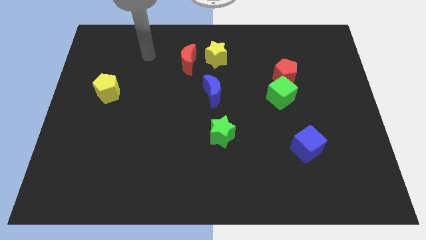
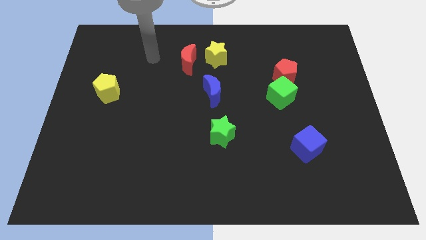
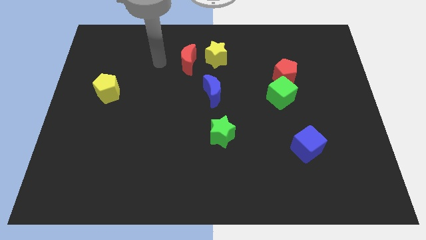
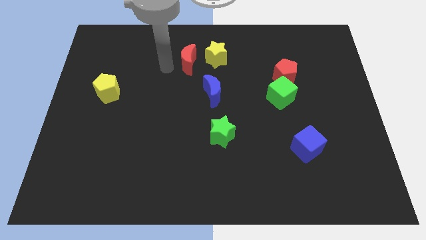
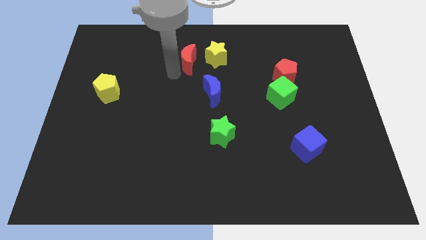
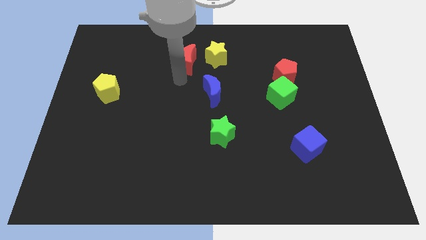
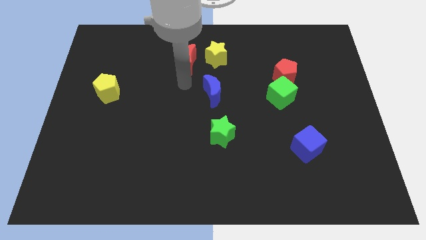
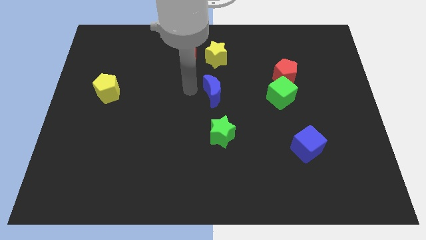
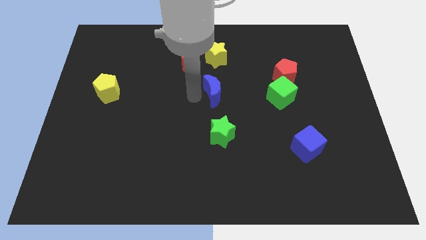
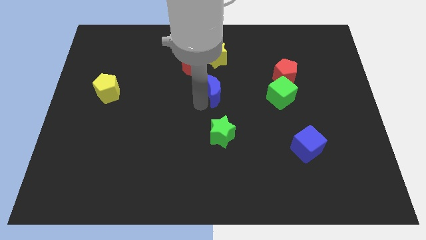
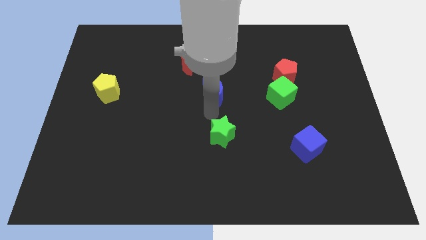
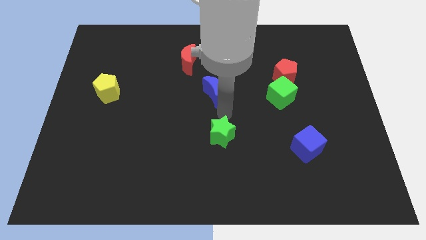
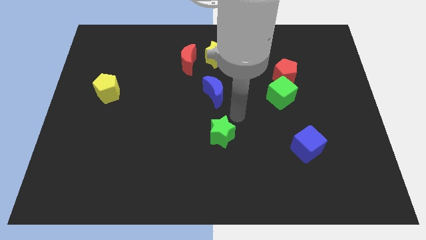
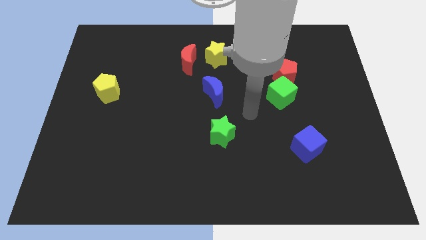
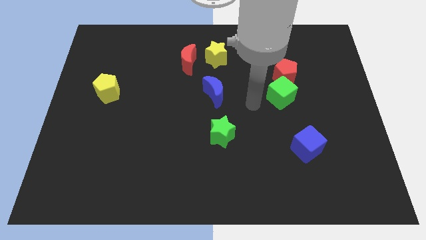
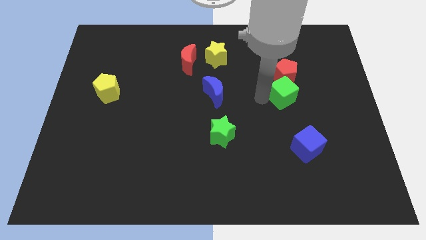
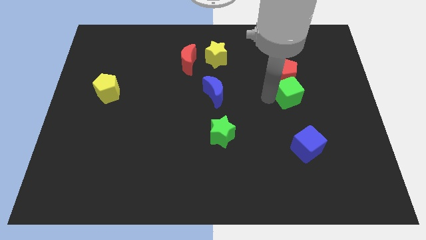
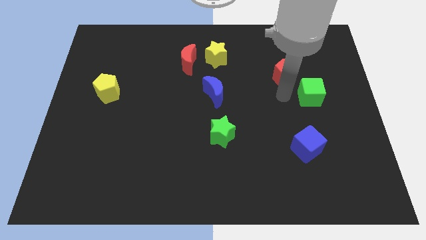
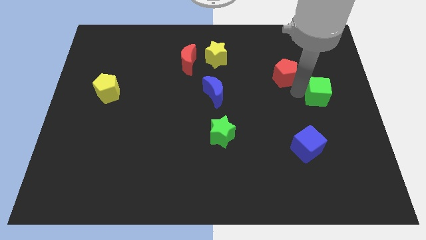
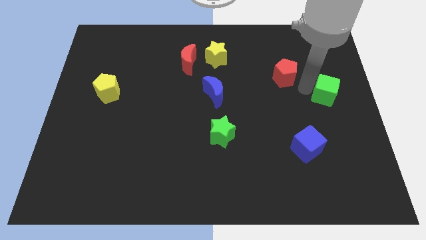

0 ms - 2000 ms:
move the red pentagon away from the green cube

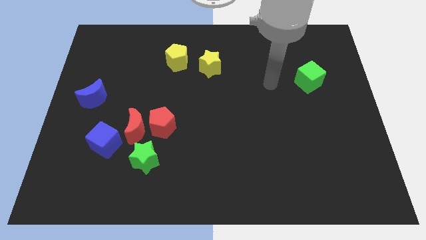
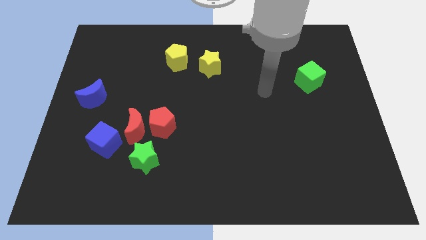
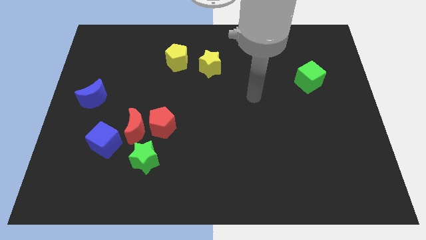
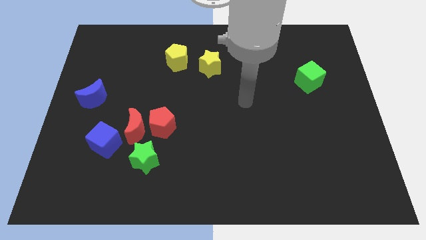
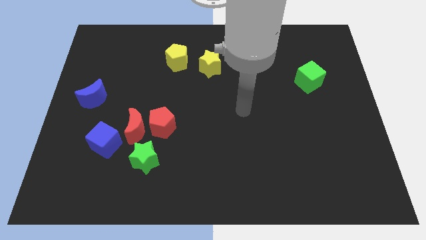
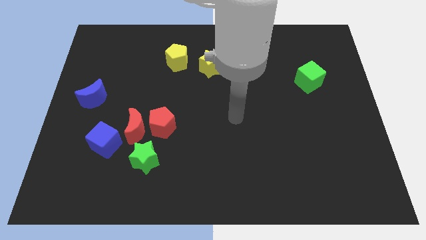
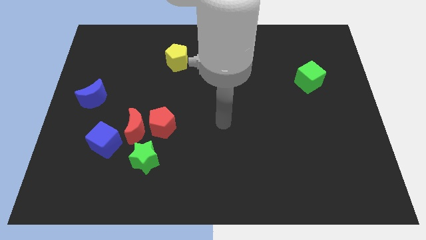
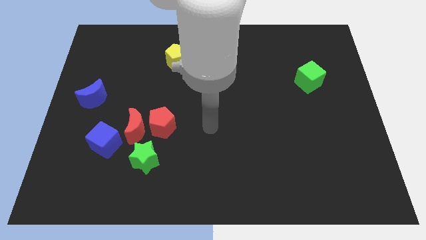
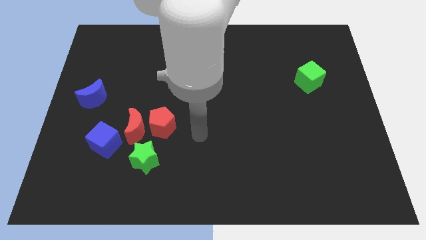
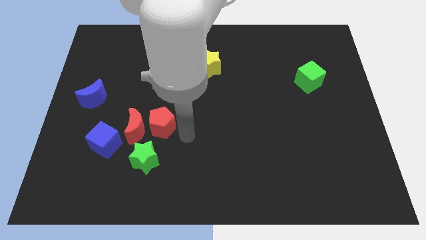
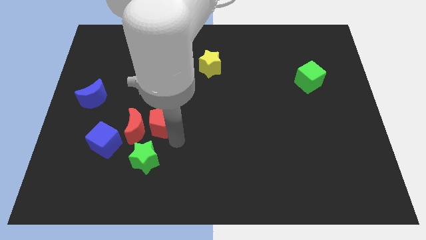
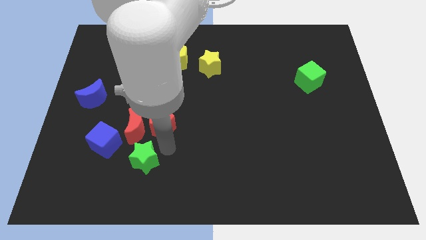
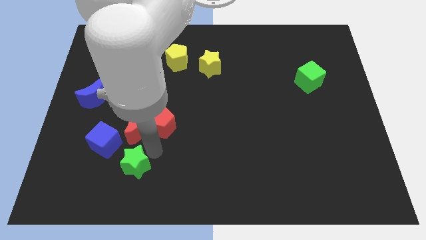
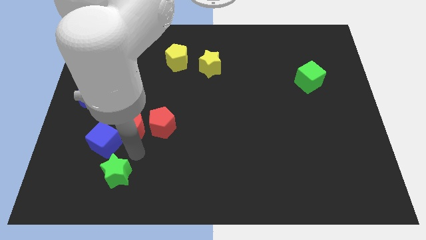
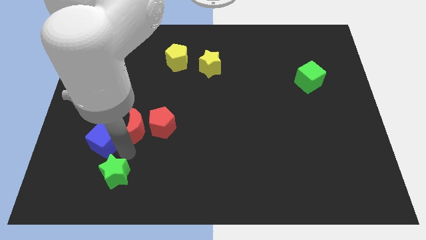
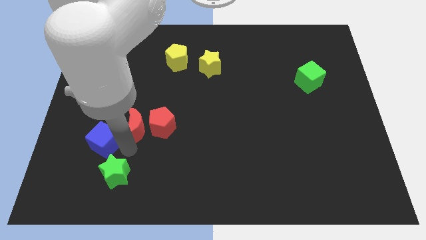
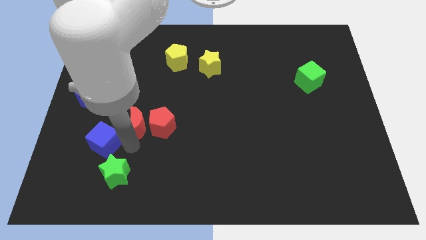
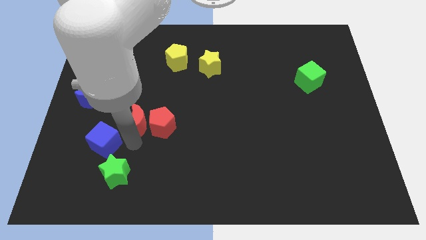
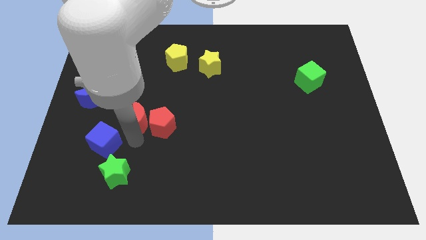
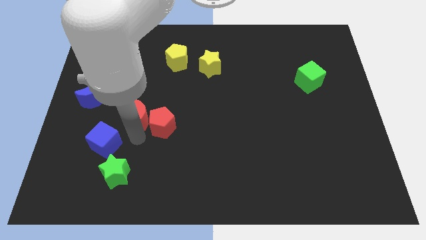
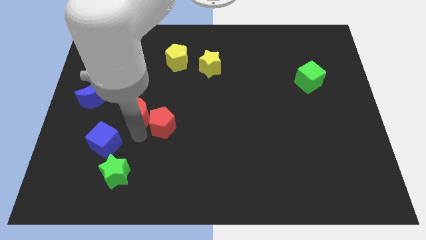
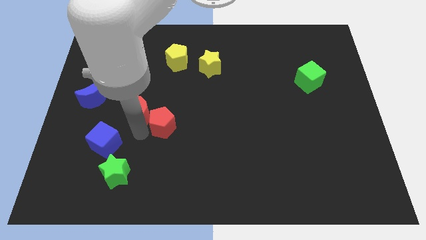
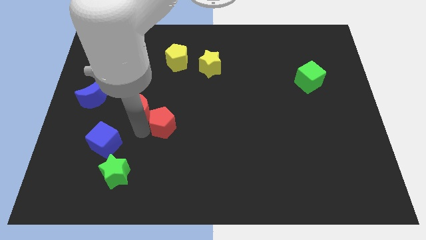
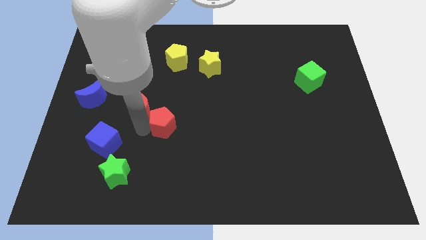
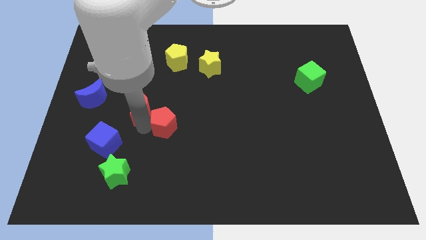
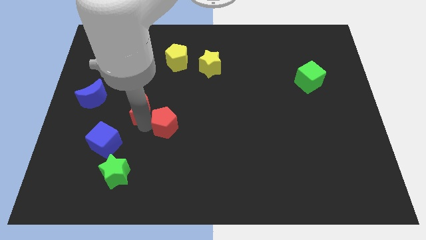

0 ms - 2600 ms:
separate the red moon from the group of blocks

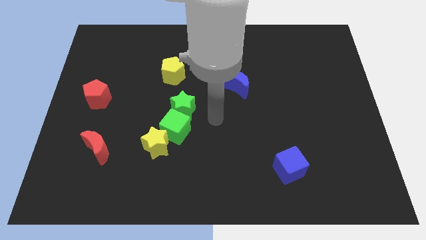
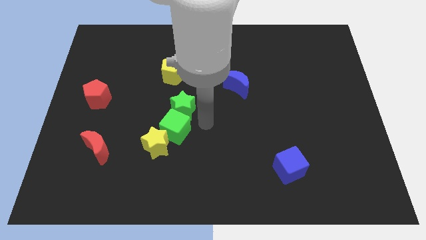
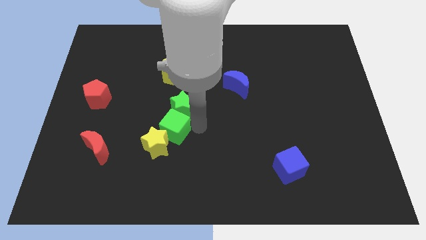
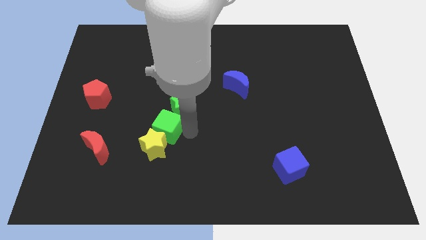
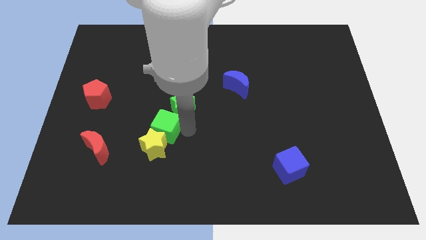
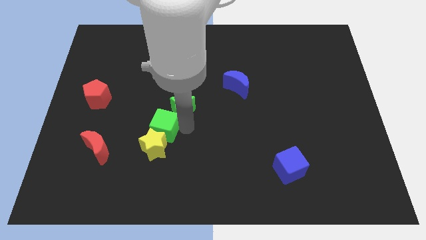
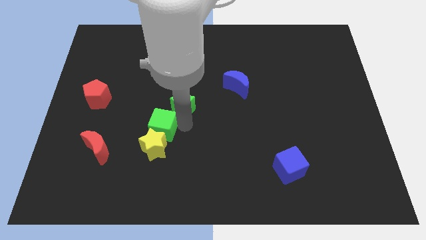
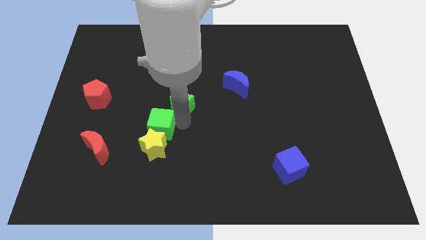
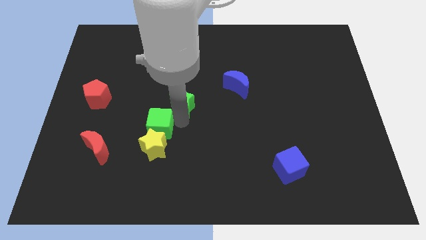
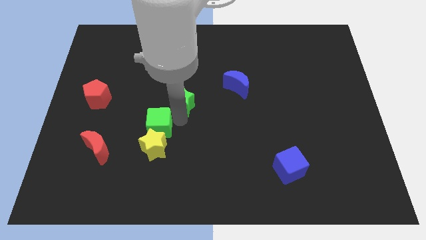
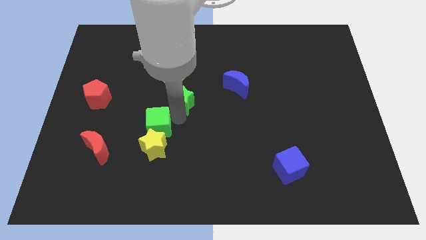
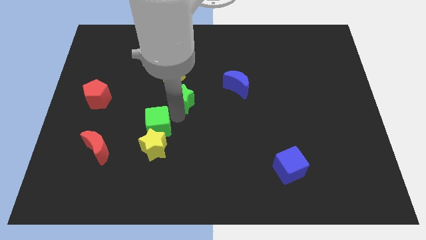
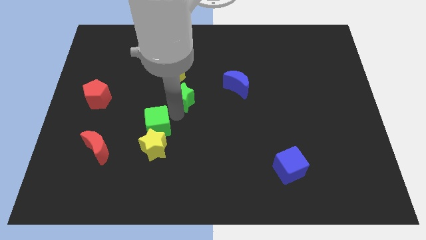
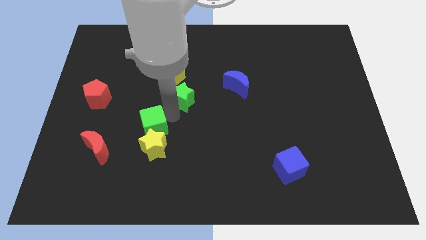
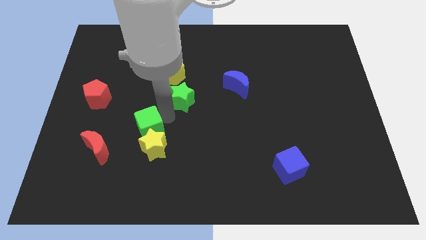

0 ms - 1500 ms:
move the green star away from the green cube

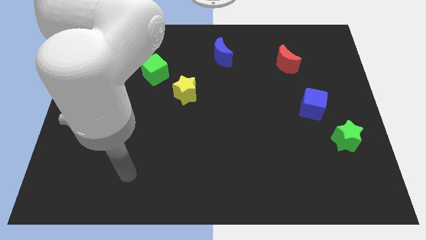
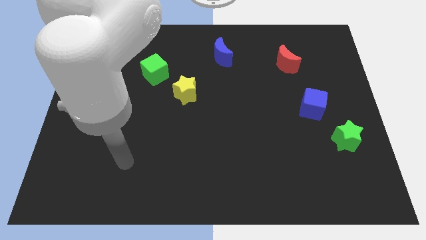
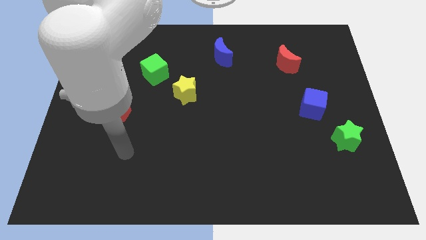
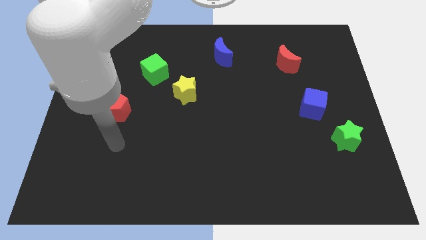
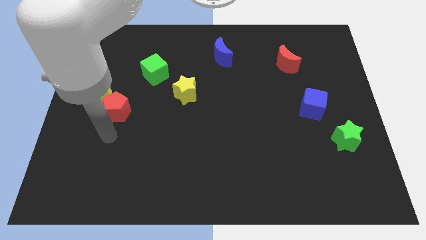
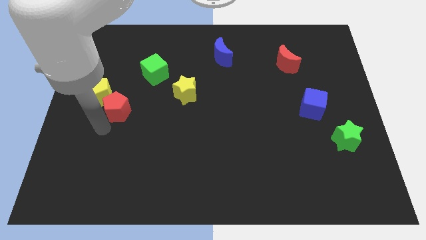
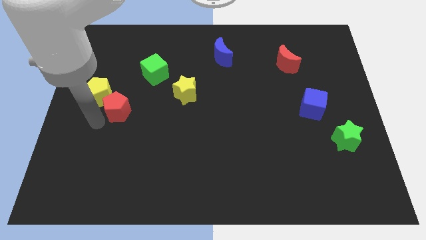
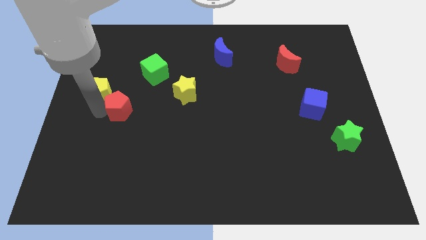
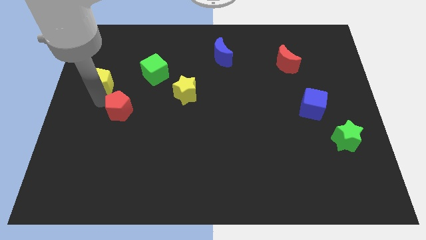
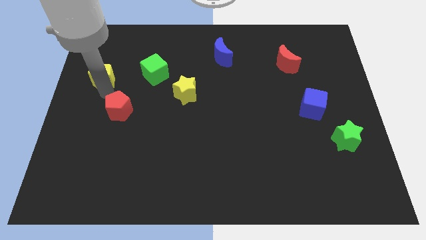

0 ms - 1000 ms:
move the red pentagon away from the yellow pentagon

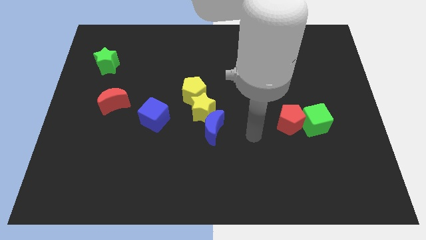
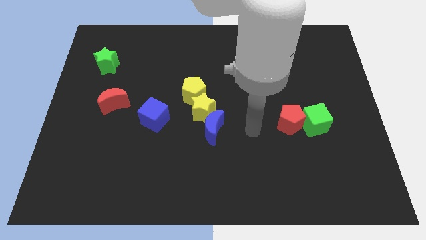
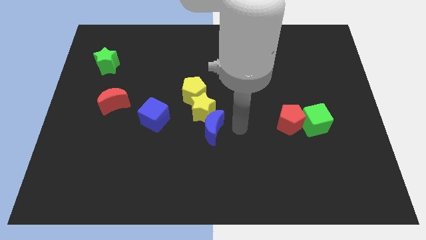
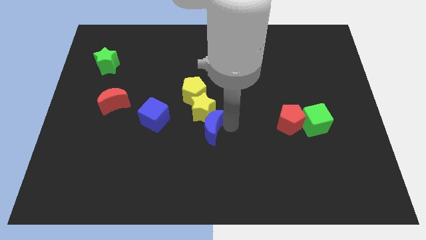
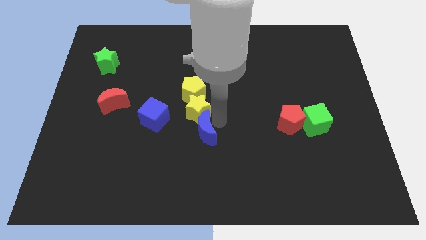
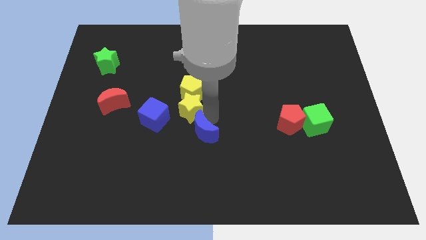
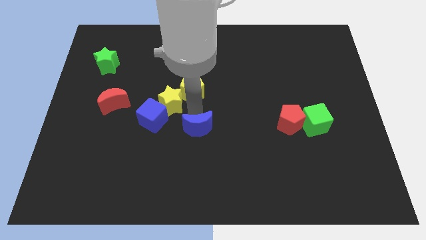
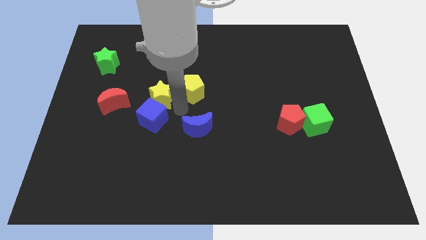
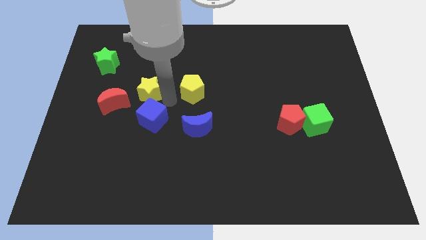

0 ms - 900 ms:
separate the yellow pentagon from the yellow star

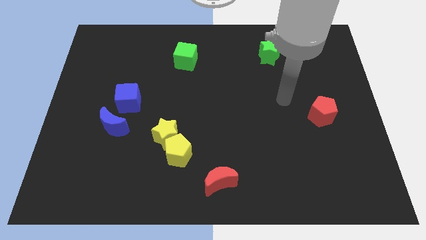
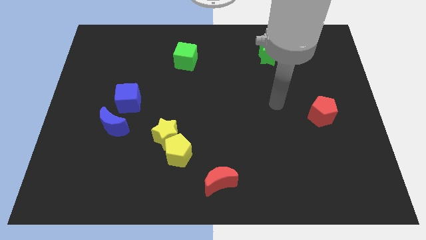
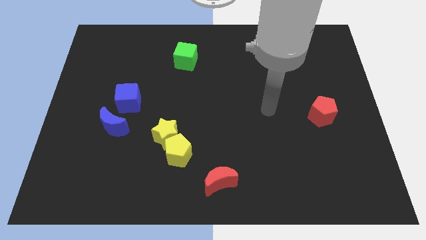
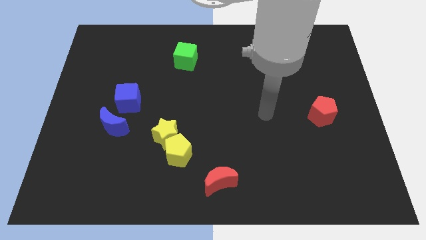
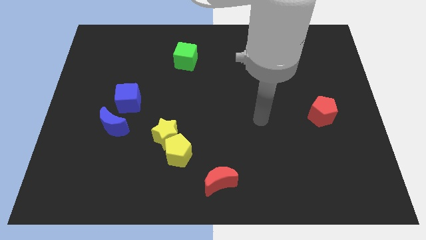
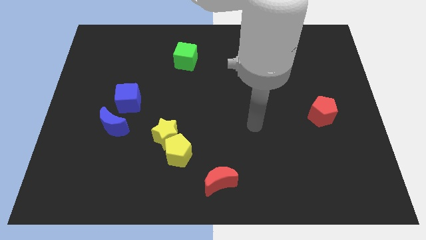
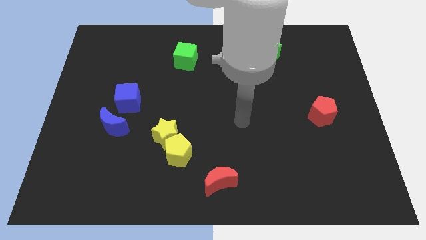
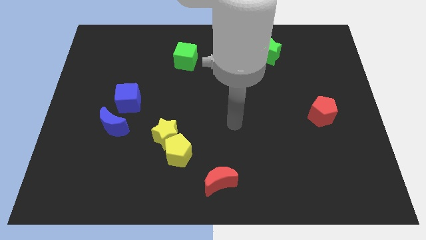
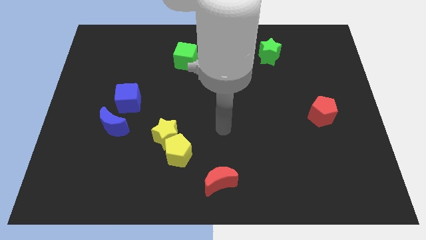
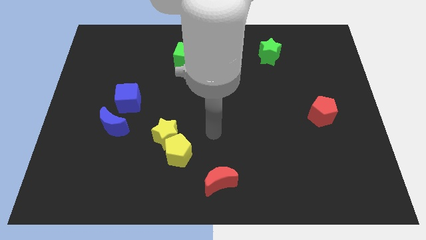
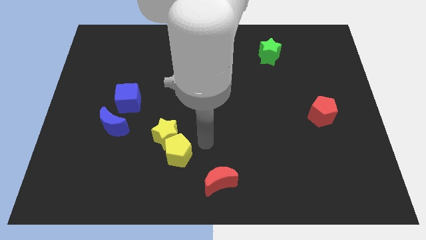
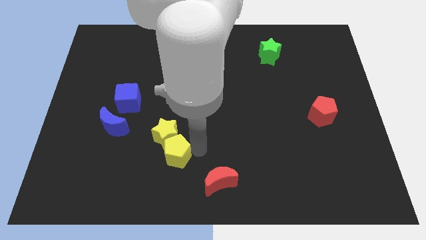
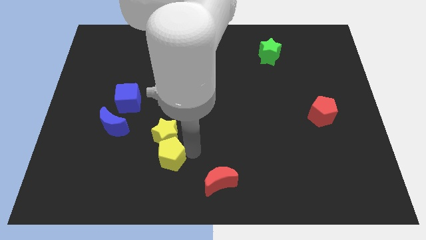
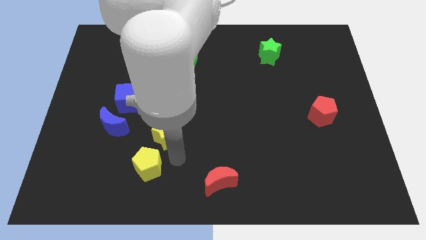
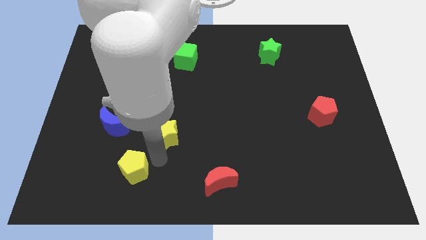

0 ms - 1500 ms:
pull the yellow star apart from the yellow pentagon
